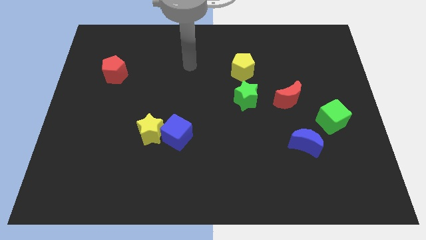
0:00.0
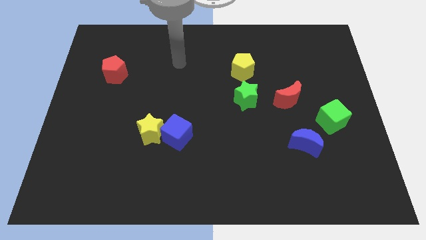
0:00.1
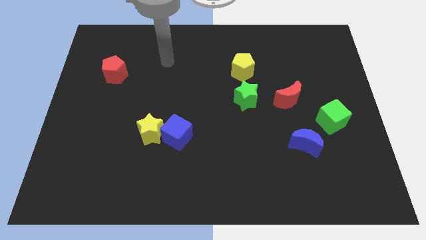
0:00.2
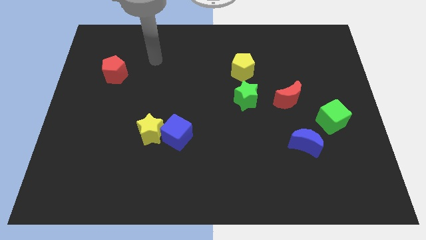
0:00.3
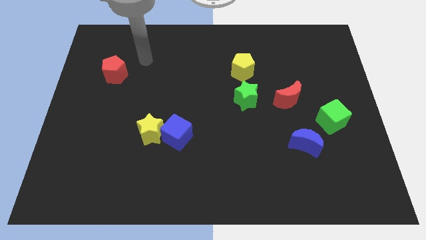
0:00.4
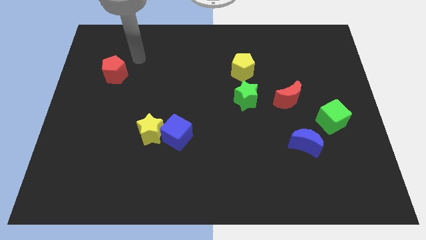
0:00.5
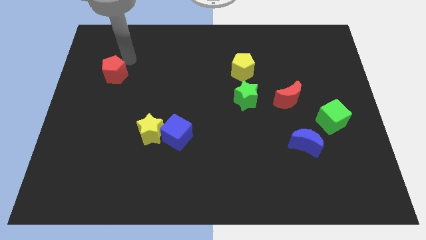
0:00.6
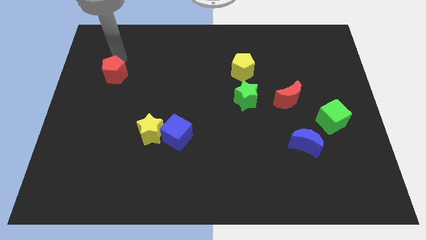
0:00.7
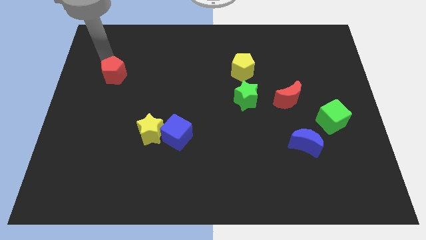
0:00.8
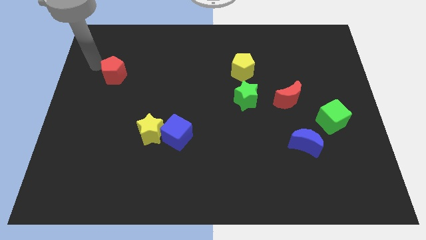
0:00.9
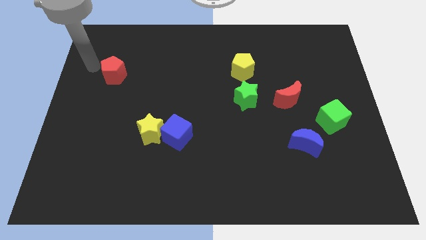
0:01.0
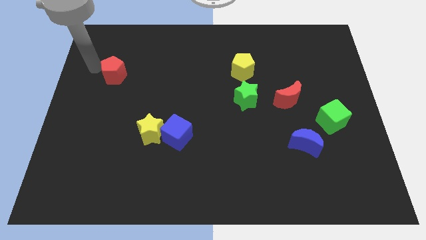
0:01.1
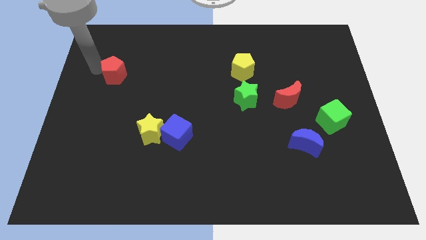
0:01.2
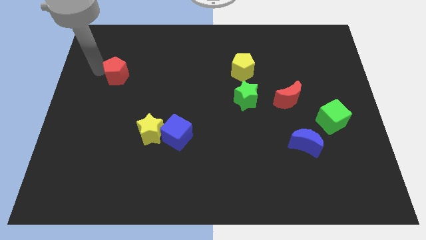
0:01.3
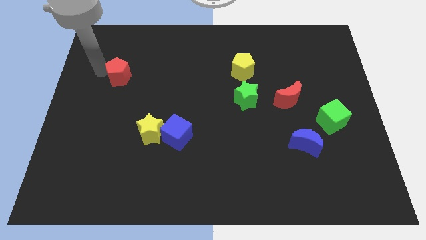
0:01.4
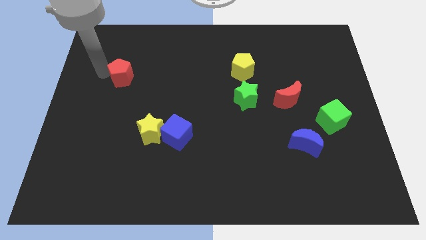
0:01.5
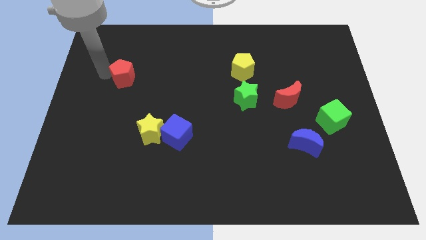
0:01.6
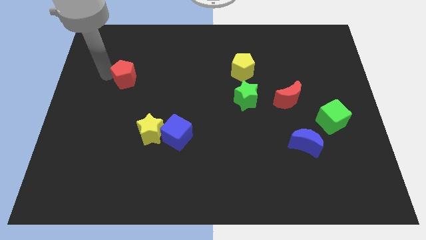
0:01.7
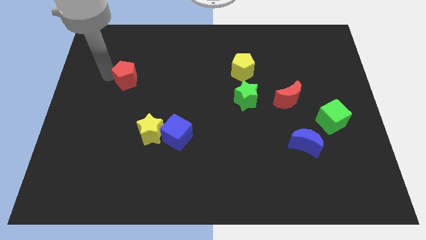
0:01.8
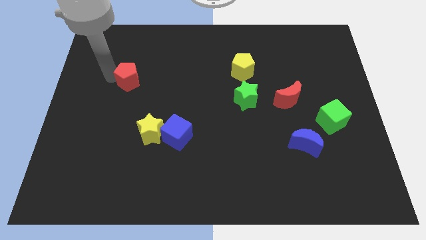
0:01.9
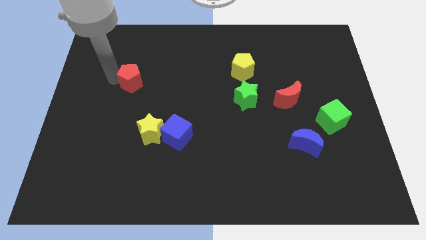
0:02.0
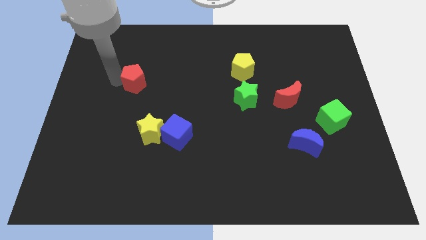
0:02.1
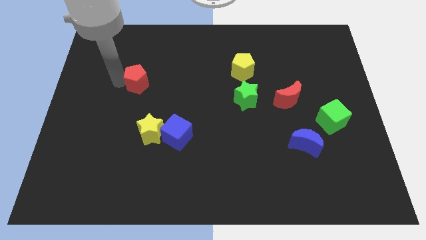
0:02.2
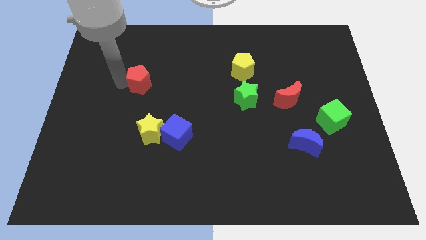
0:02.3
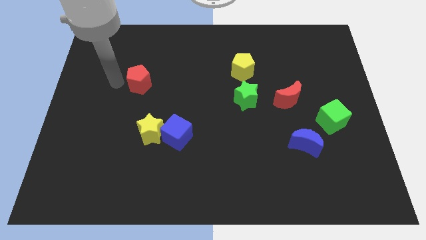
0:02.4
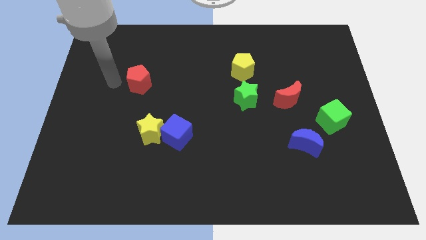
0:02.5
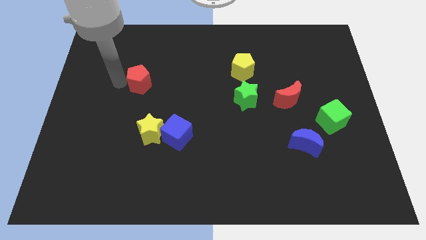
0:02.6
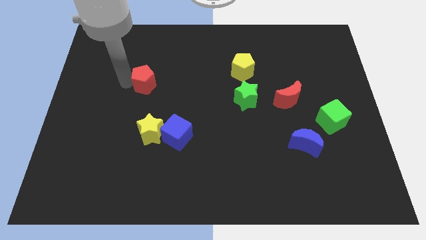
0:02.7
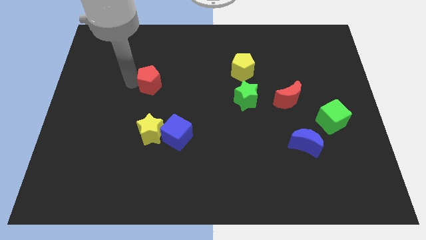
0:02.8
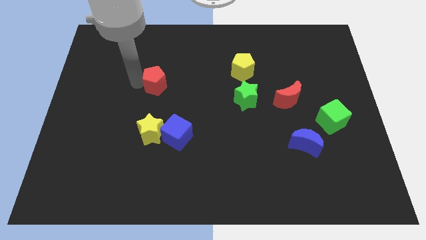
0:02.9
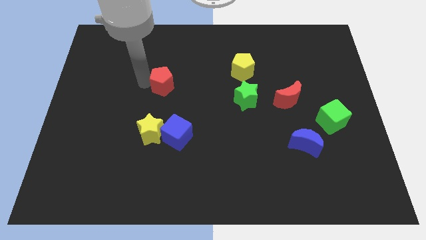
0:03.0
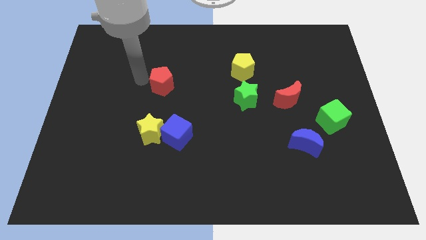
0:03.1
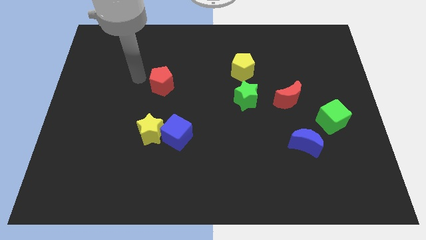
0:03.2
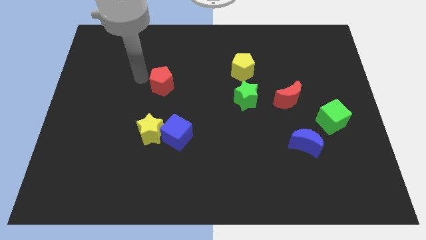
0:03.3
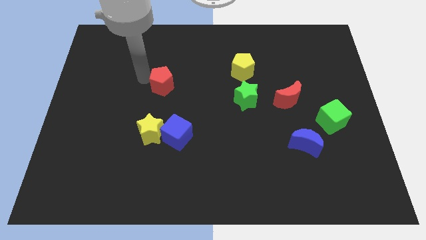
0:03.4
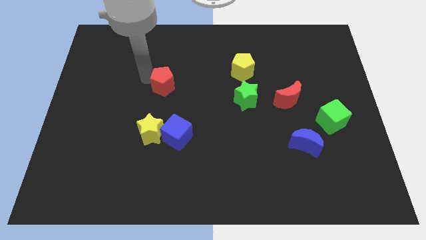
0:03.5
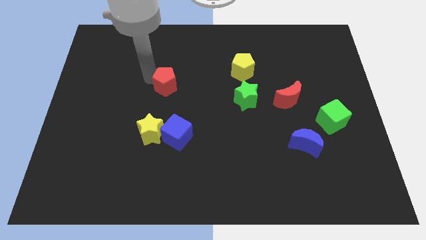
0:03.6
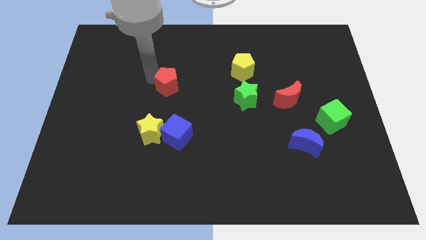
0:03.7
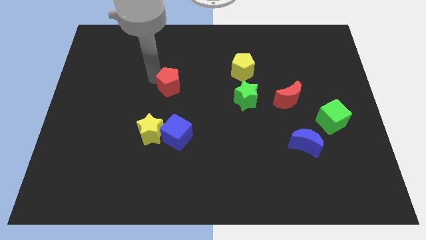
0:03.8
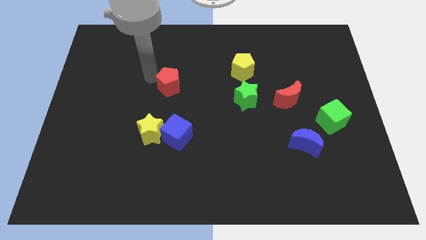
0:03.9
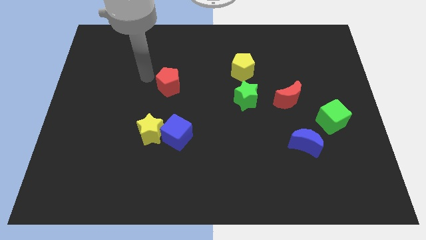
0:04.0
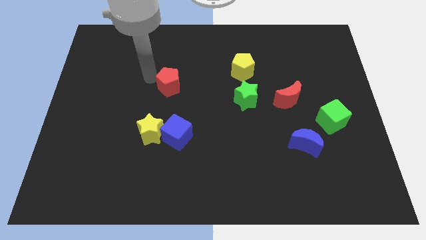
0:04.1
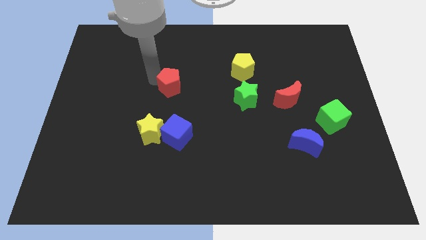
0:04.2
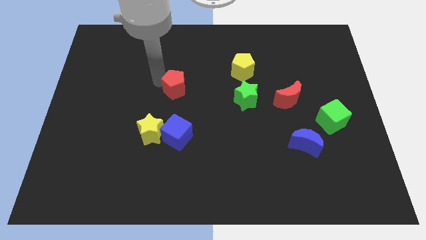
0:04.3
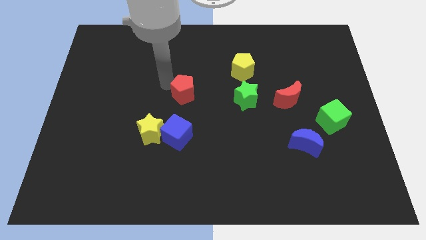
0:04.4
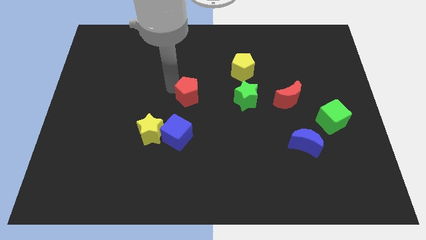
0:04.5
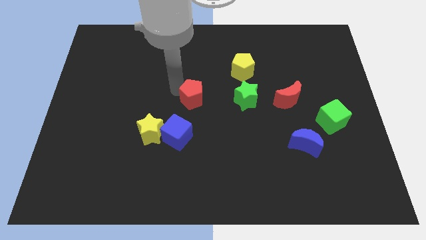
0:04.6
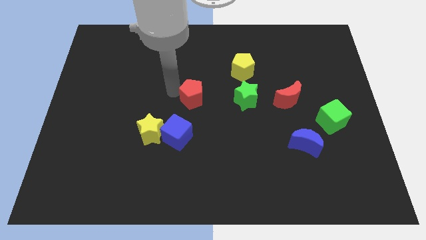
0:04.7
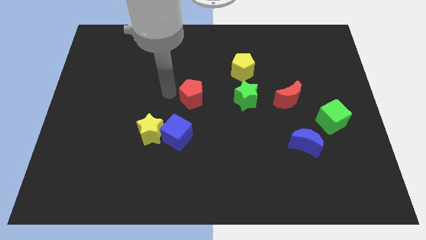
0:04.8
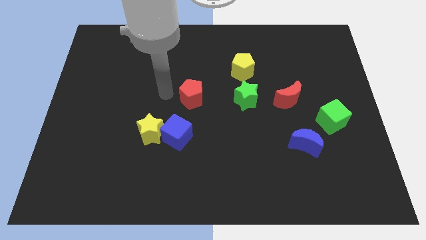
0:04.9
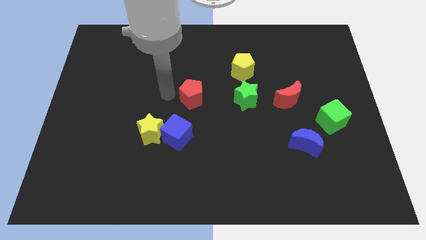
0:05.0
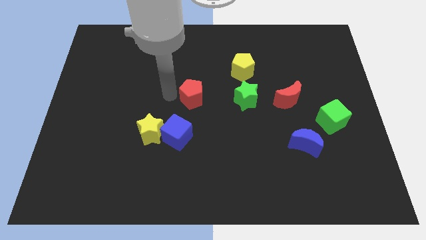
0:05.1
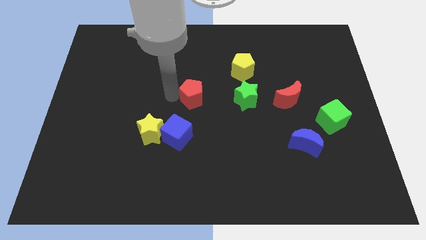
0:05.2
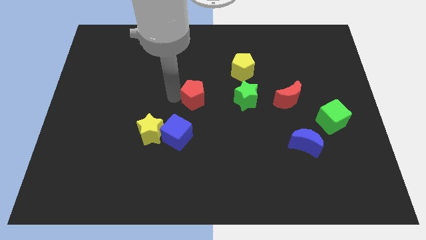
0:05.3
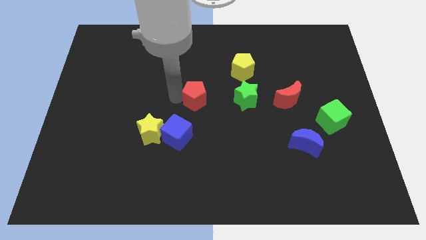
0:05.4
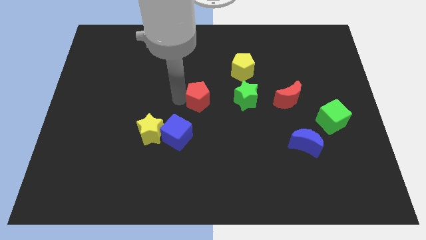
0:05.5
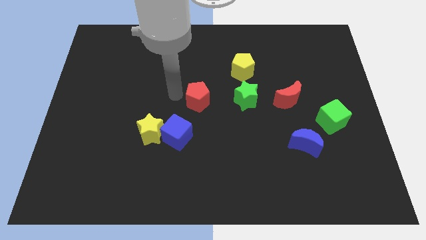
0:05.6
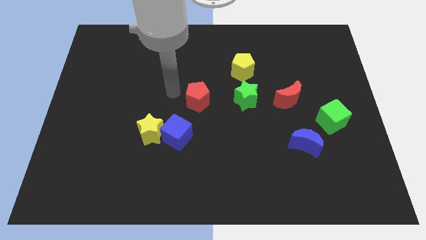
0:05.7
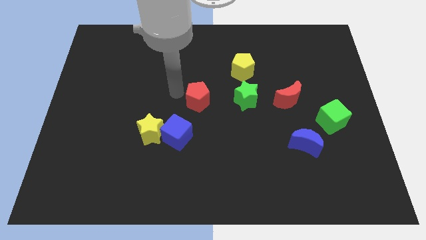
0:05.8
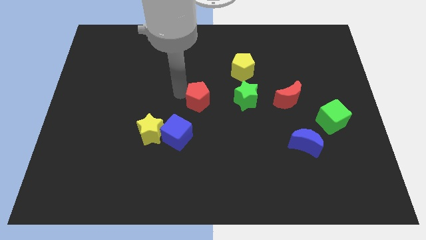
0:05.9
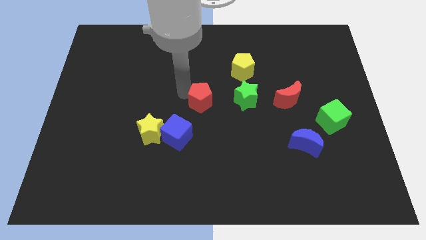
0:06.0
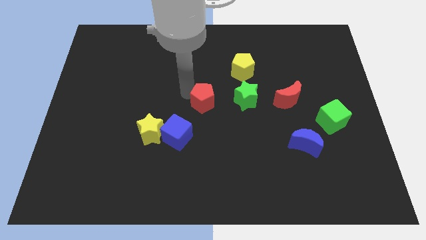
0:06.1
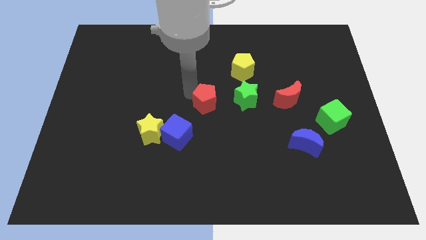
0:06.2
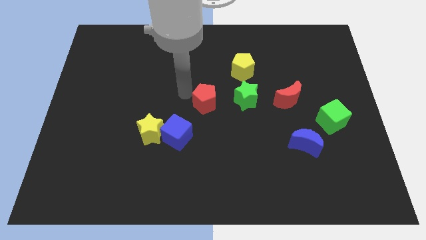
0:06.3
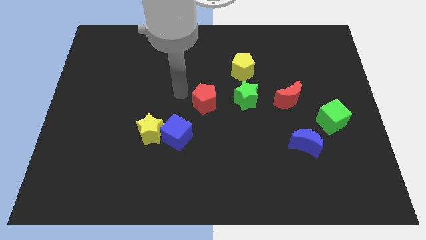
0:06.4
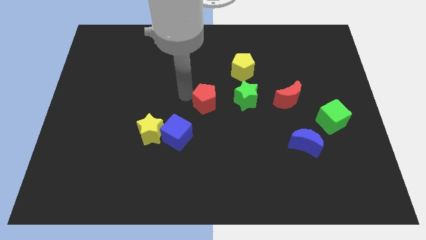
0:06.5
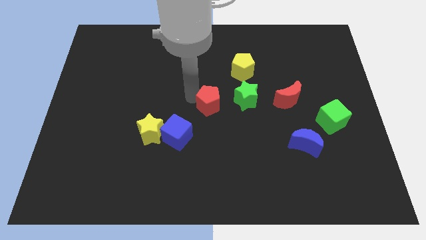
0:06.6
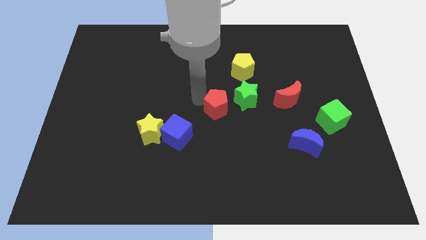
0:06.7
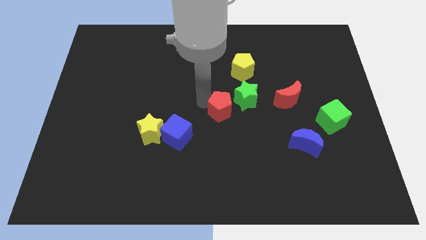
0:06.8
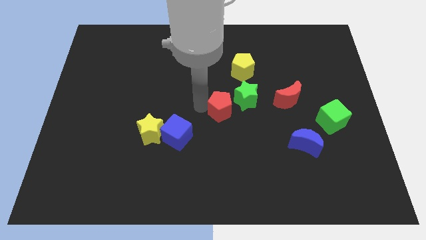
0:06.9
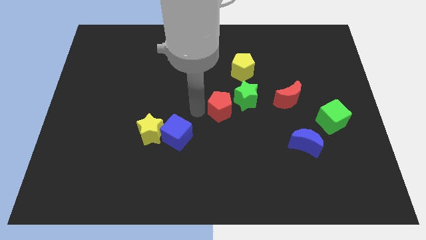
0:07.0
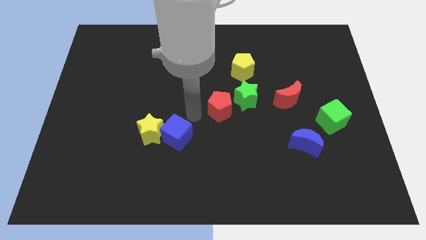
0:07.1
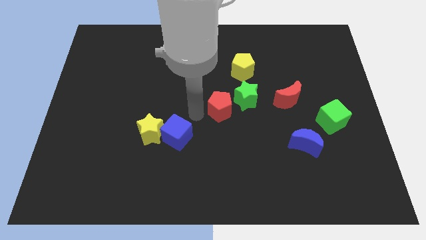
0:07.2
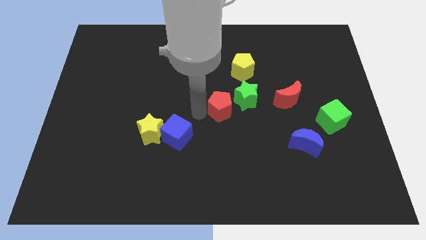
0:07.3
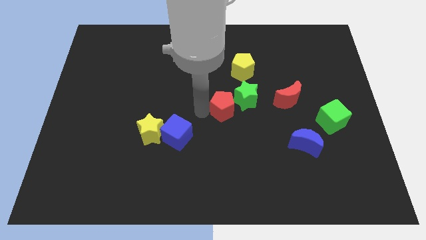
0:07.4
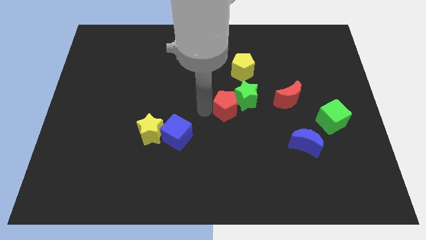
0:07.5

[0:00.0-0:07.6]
push the red pentagon to the bottom of the yellow pentagon

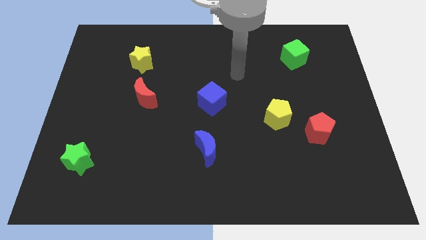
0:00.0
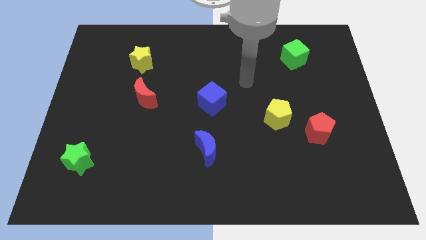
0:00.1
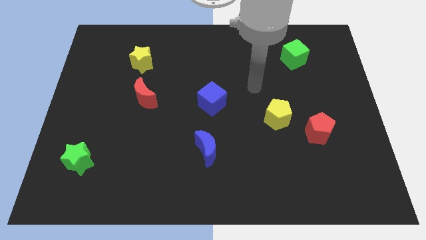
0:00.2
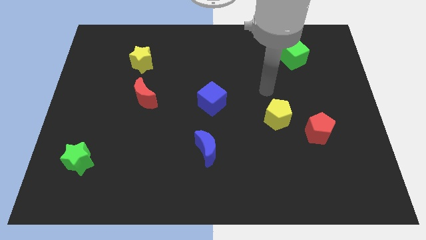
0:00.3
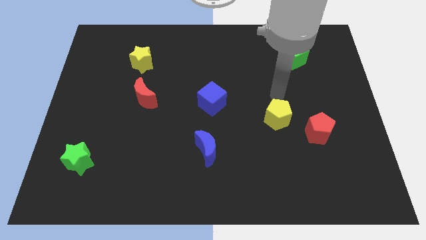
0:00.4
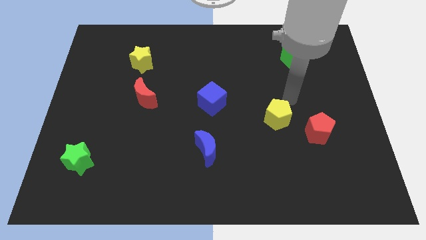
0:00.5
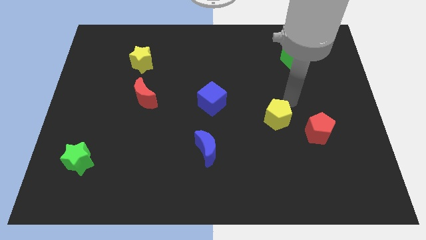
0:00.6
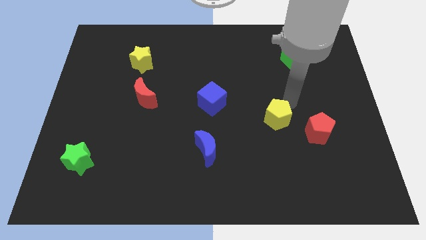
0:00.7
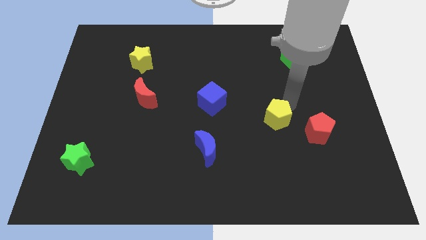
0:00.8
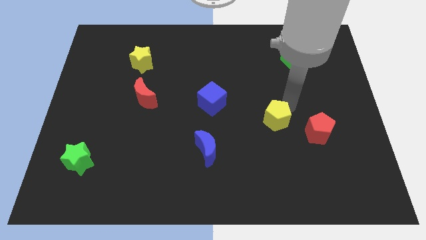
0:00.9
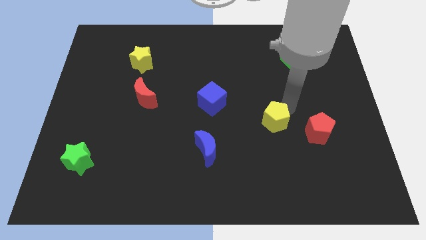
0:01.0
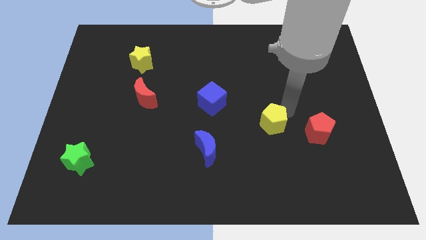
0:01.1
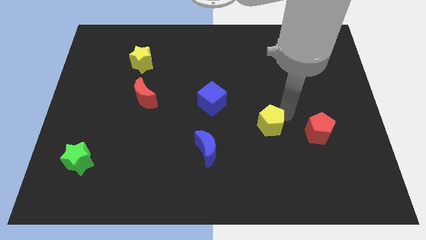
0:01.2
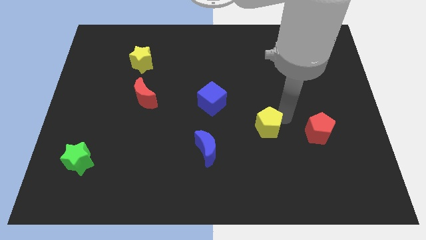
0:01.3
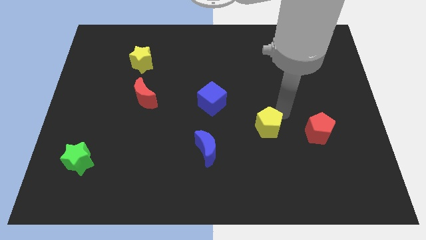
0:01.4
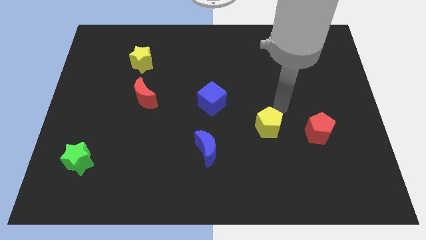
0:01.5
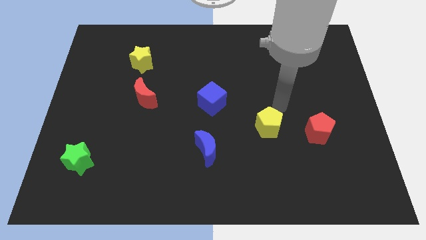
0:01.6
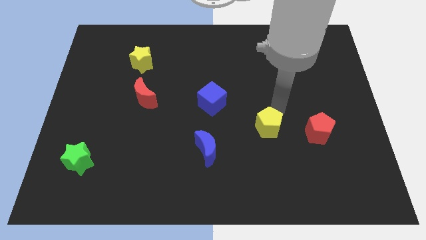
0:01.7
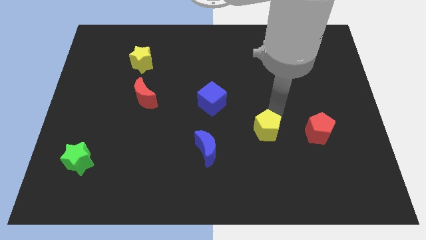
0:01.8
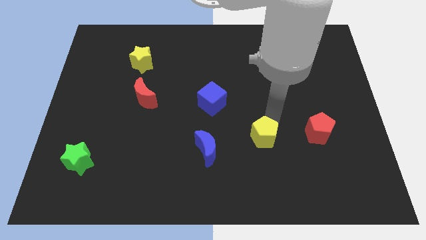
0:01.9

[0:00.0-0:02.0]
move the yellow pentagon just right of the blue moon
